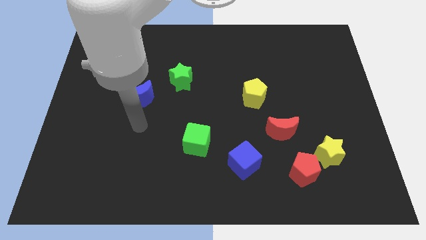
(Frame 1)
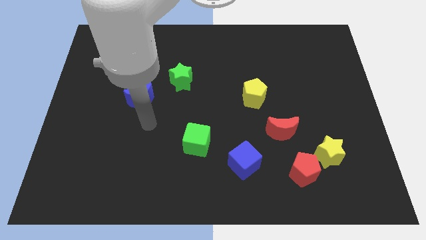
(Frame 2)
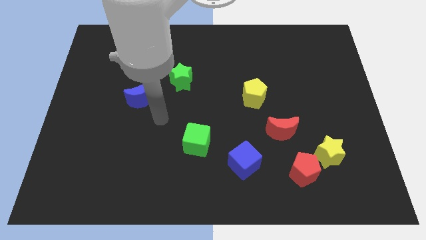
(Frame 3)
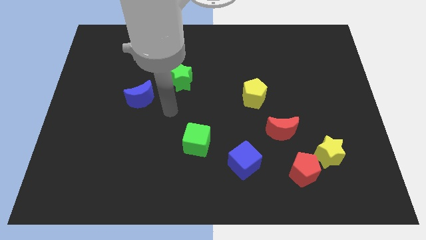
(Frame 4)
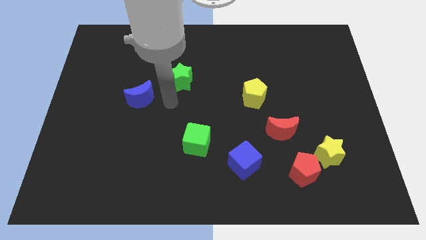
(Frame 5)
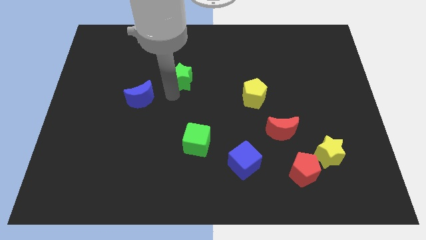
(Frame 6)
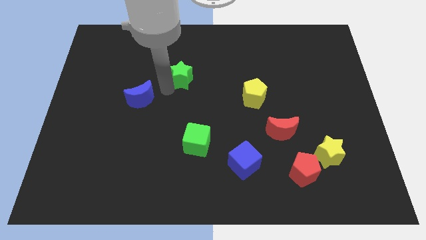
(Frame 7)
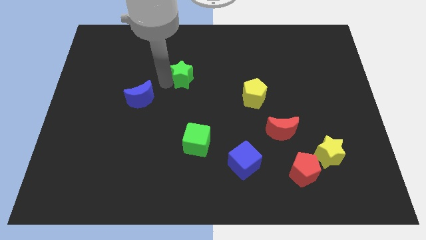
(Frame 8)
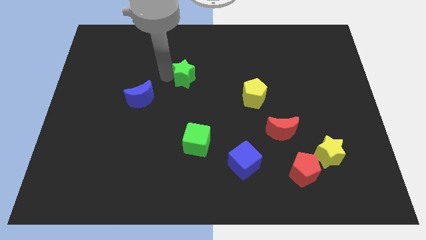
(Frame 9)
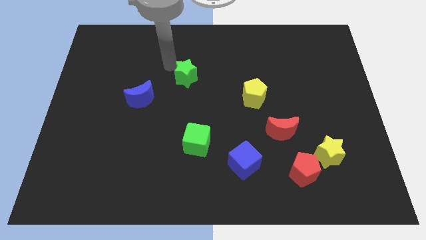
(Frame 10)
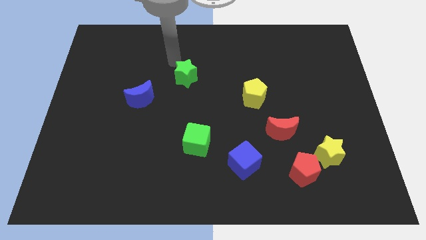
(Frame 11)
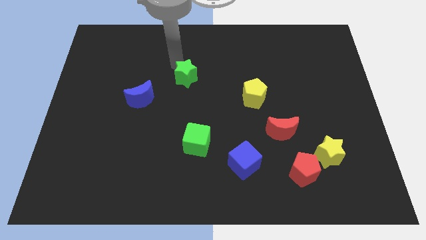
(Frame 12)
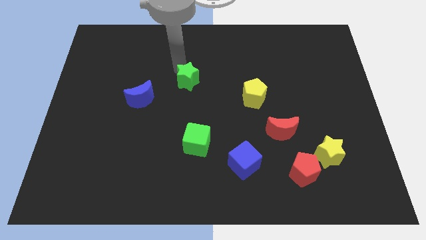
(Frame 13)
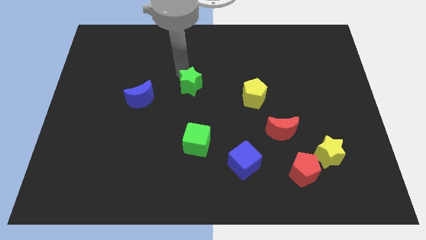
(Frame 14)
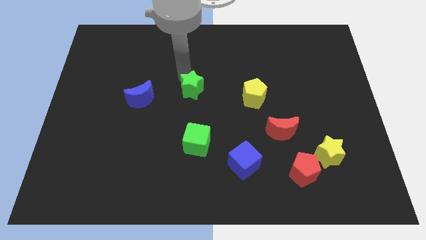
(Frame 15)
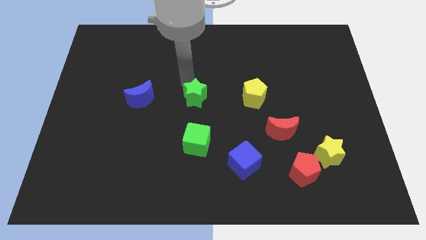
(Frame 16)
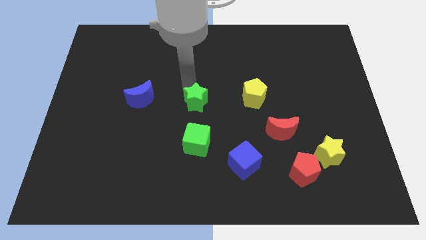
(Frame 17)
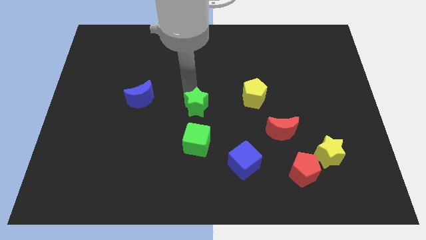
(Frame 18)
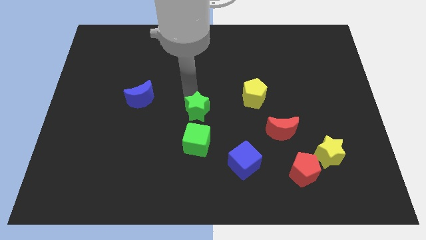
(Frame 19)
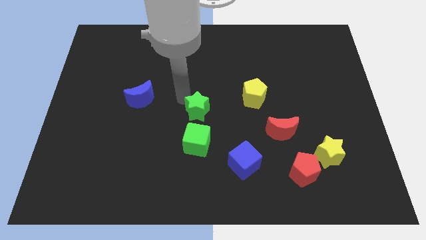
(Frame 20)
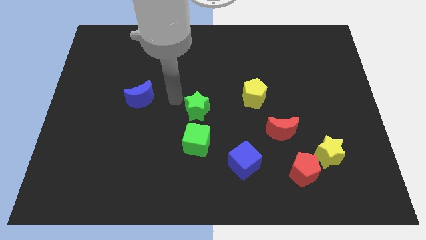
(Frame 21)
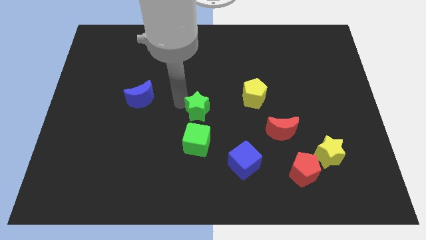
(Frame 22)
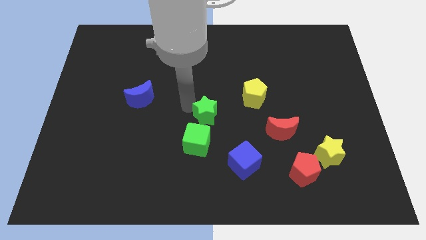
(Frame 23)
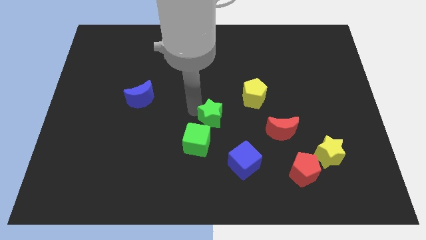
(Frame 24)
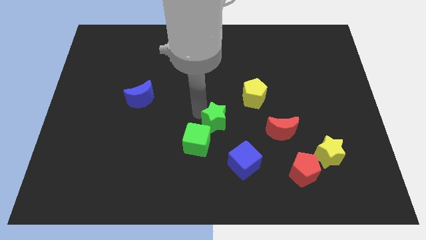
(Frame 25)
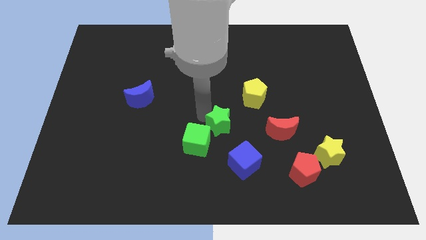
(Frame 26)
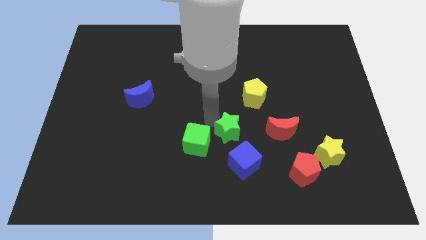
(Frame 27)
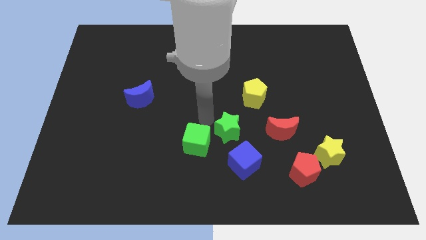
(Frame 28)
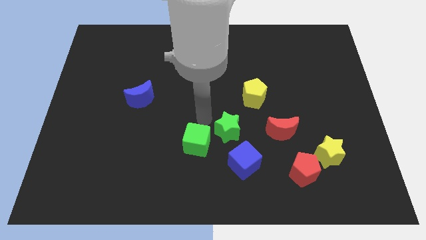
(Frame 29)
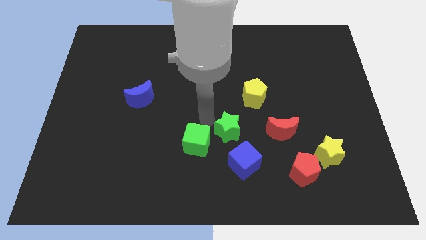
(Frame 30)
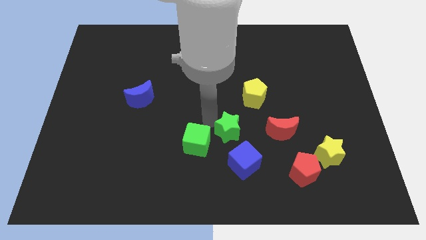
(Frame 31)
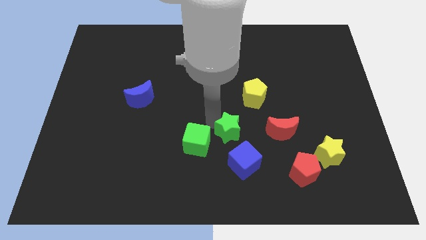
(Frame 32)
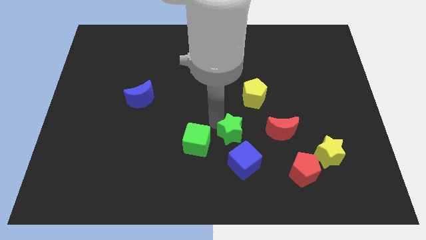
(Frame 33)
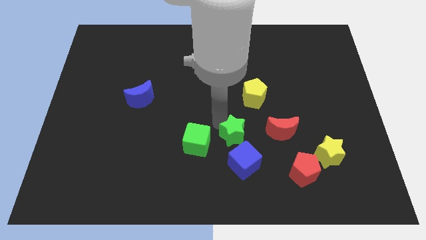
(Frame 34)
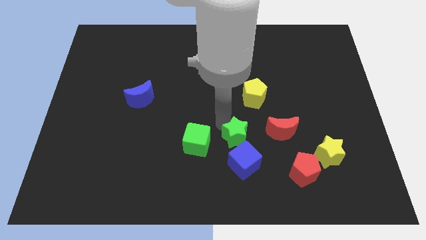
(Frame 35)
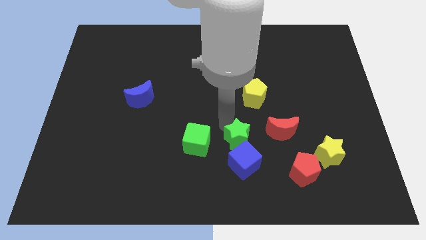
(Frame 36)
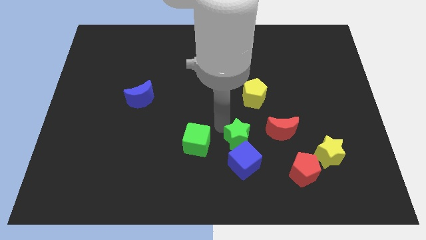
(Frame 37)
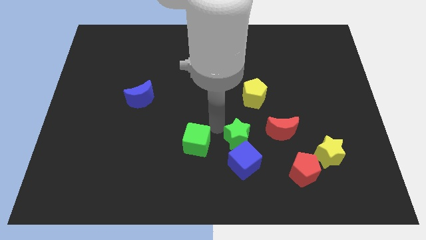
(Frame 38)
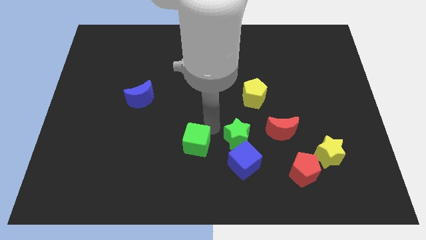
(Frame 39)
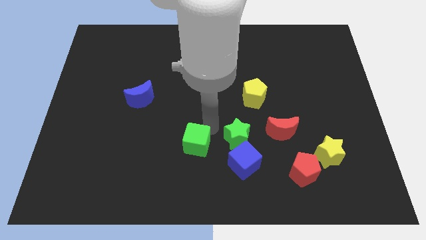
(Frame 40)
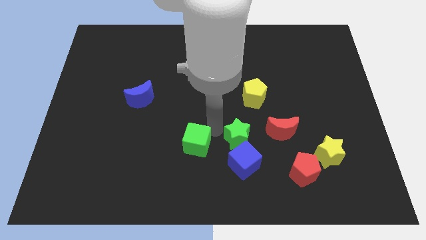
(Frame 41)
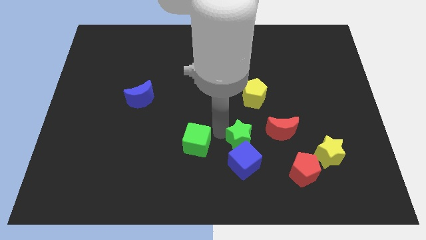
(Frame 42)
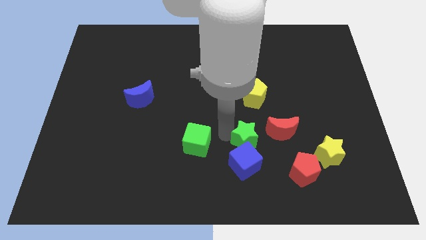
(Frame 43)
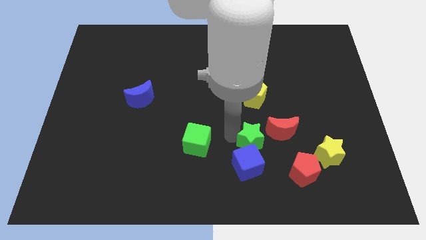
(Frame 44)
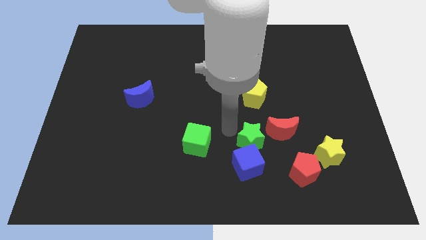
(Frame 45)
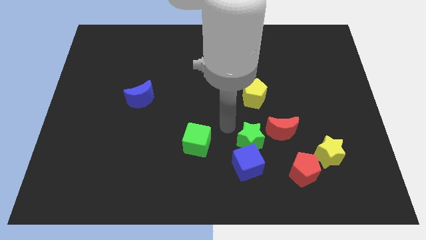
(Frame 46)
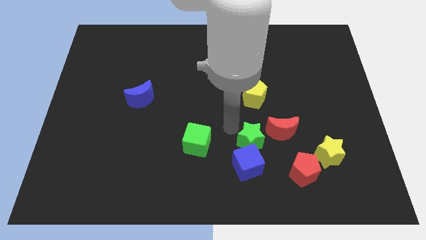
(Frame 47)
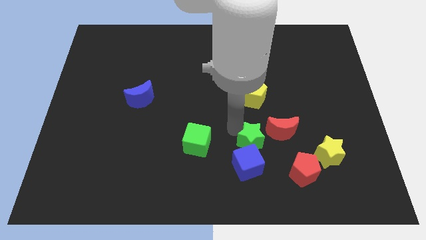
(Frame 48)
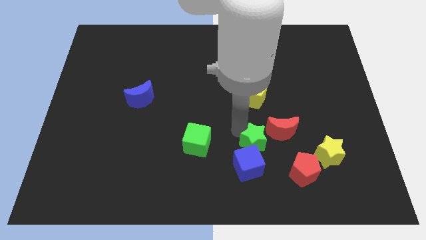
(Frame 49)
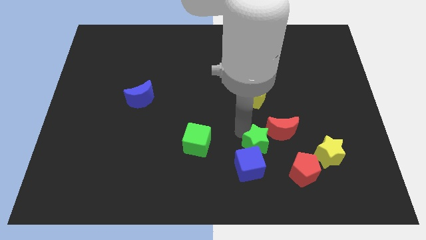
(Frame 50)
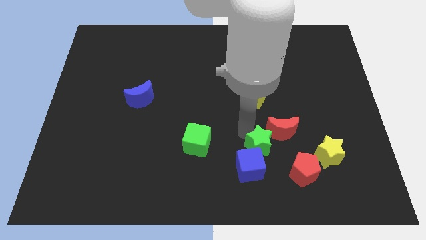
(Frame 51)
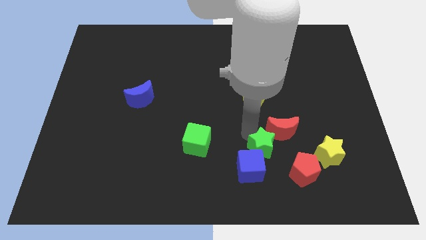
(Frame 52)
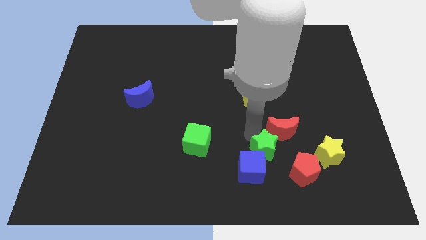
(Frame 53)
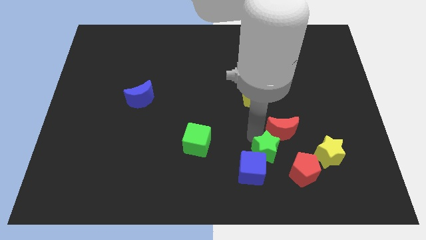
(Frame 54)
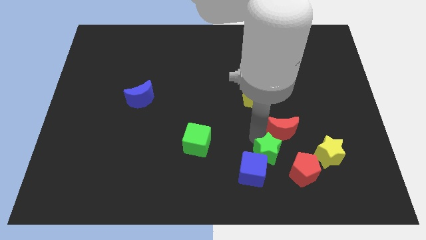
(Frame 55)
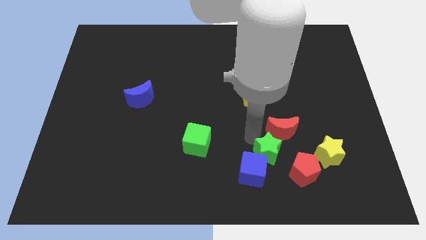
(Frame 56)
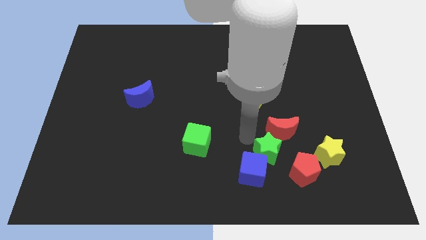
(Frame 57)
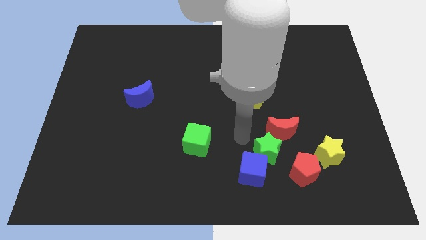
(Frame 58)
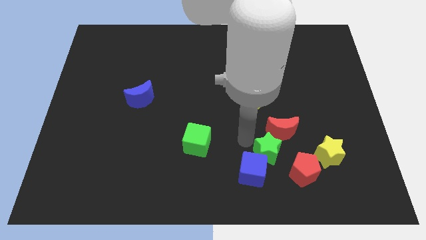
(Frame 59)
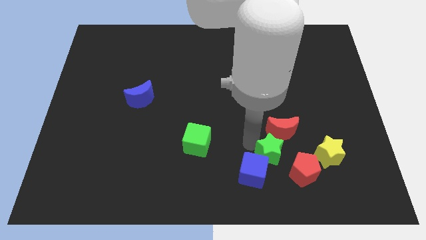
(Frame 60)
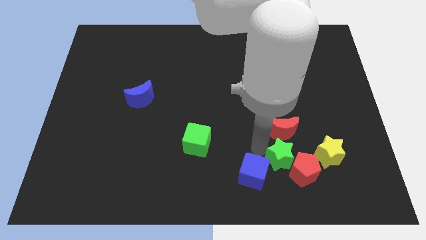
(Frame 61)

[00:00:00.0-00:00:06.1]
slide the green star to the red pentagon
